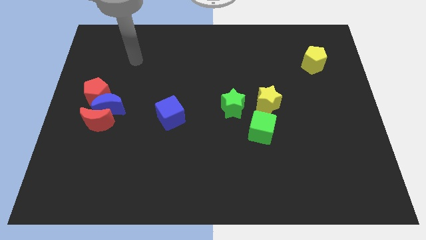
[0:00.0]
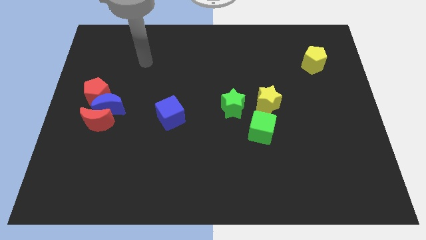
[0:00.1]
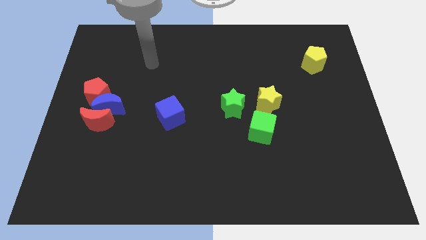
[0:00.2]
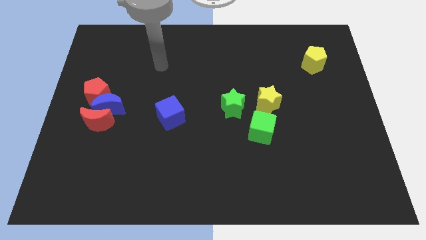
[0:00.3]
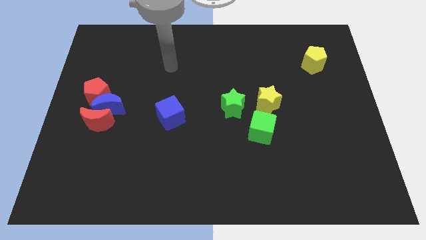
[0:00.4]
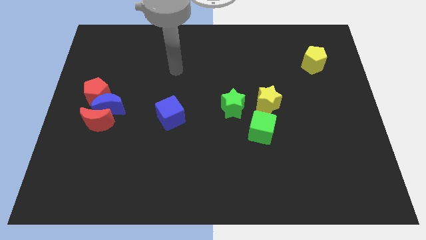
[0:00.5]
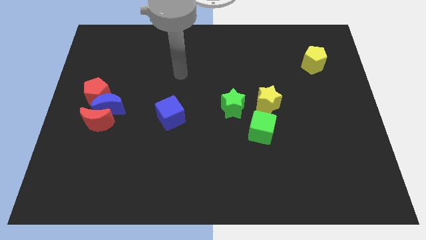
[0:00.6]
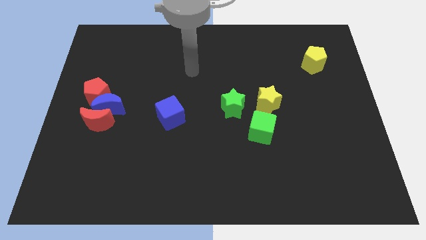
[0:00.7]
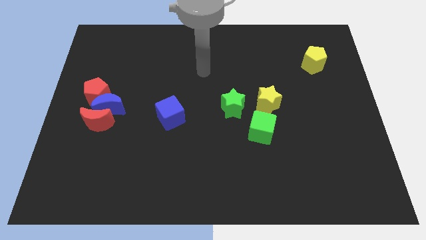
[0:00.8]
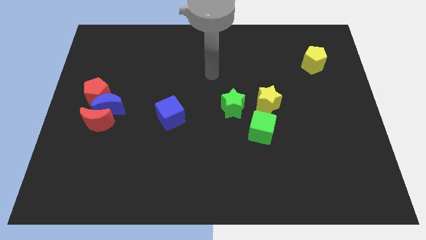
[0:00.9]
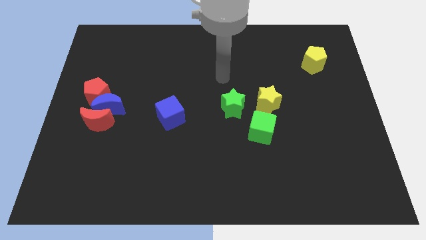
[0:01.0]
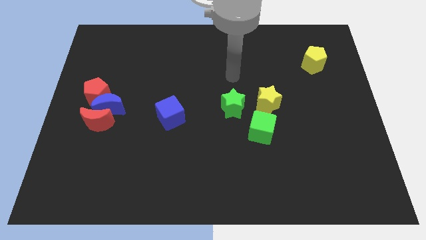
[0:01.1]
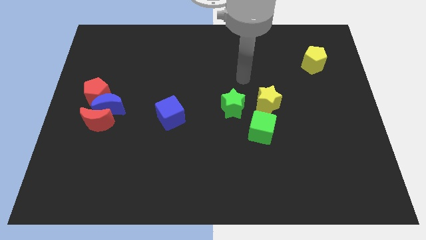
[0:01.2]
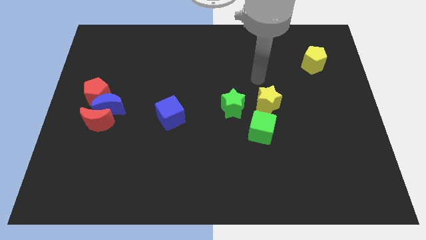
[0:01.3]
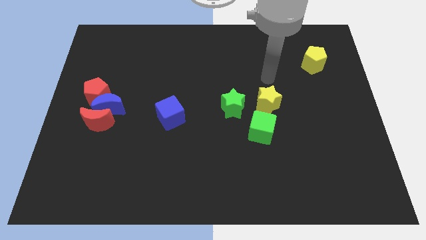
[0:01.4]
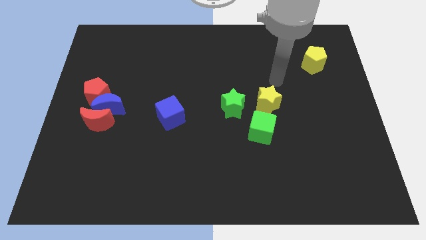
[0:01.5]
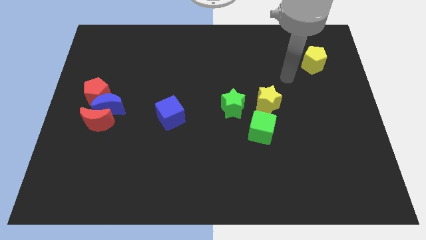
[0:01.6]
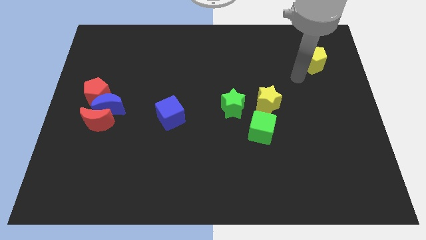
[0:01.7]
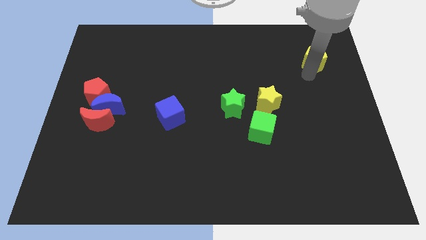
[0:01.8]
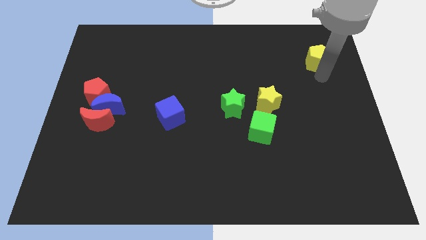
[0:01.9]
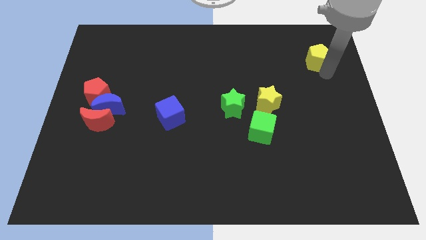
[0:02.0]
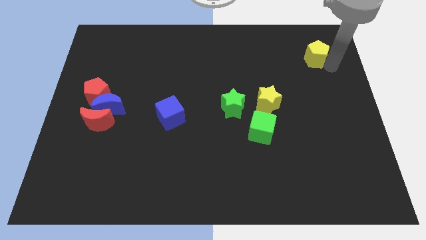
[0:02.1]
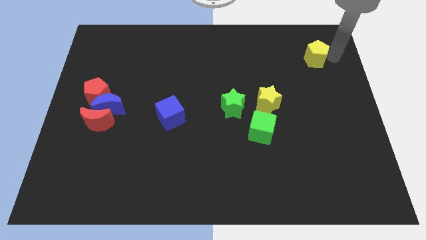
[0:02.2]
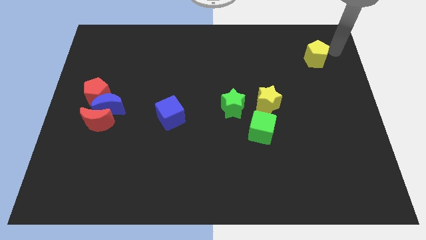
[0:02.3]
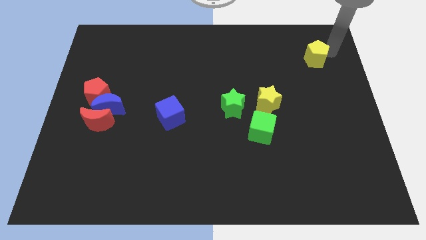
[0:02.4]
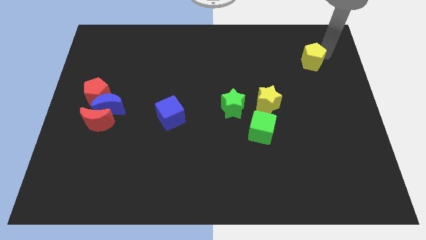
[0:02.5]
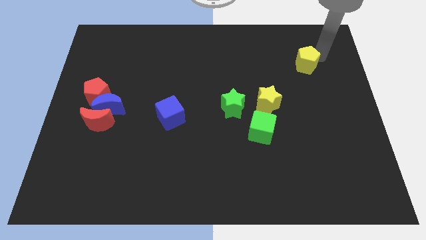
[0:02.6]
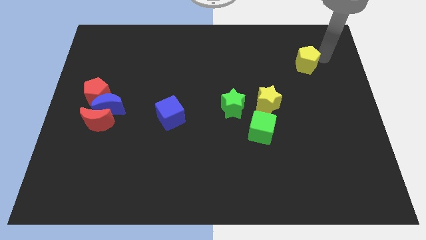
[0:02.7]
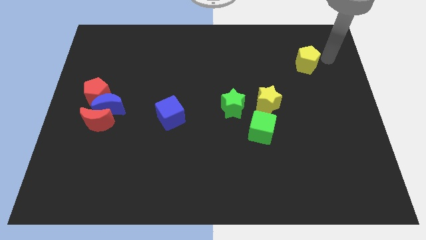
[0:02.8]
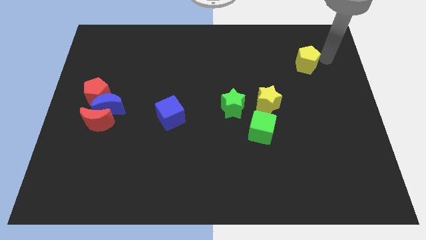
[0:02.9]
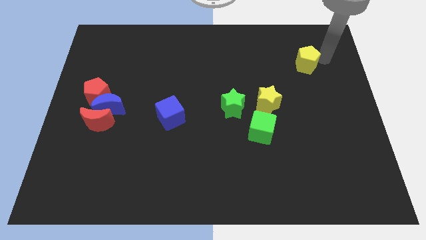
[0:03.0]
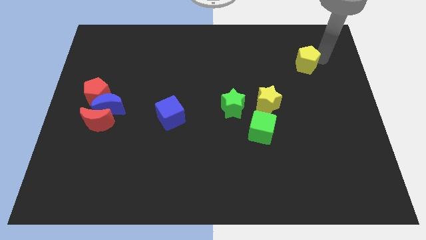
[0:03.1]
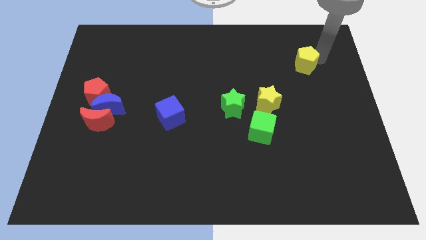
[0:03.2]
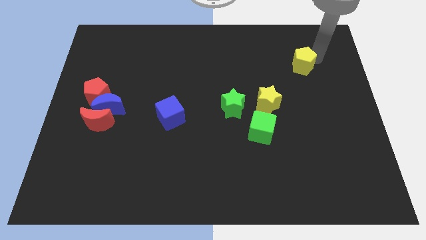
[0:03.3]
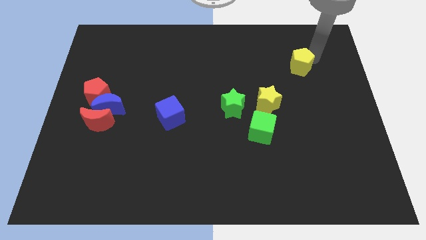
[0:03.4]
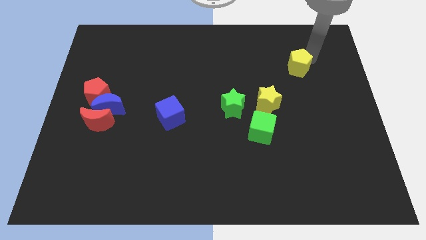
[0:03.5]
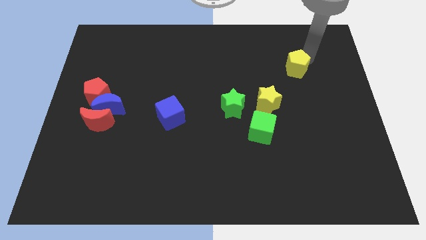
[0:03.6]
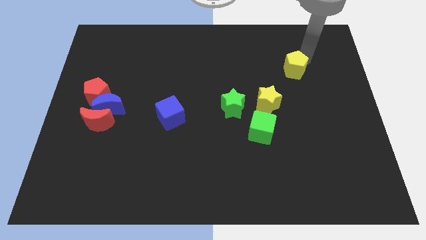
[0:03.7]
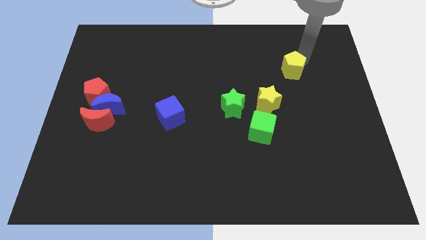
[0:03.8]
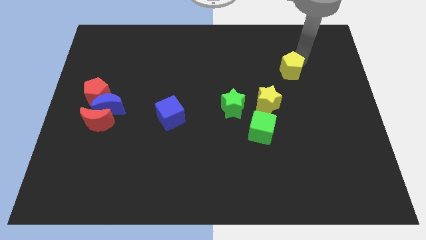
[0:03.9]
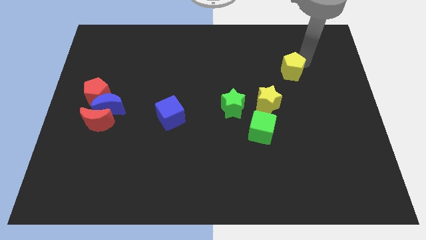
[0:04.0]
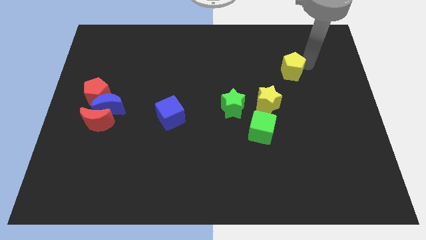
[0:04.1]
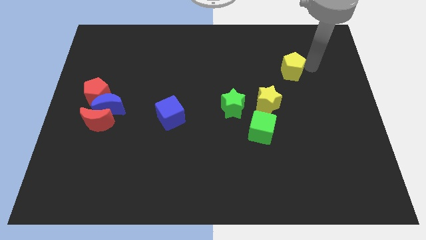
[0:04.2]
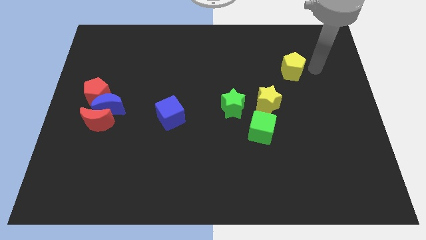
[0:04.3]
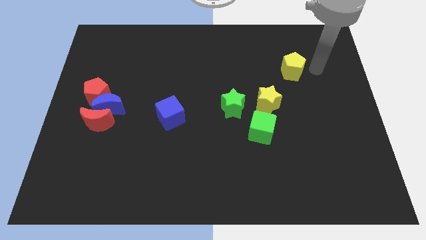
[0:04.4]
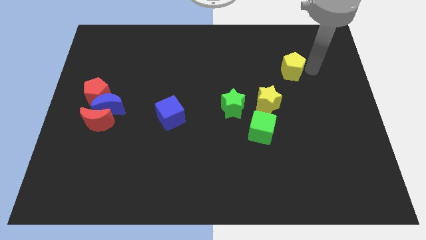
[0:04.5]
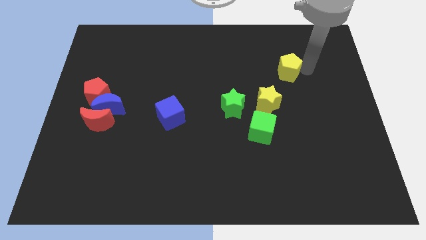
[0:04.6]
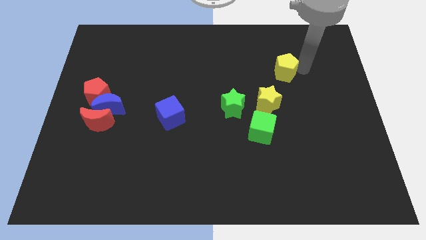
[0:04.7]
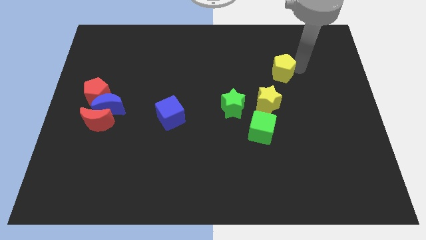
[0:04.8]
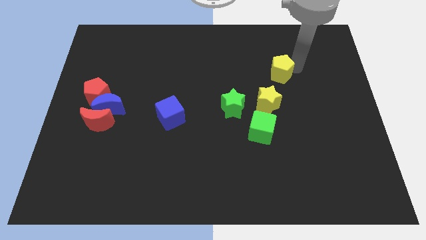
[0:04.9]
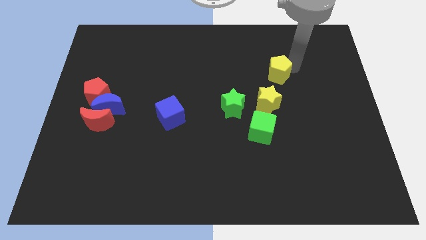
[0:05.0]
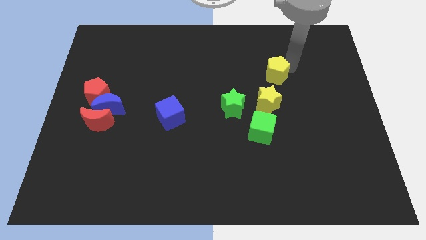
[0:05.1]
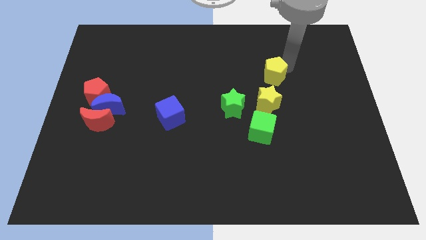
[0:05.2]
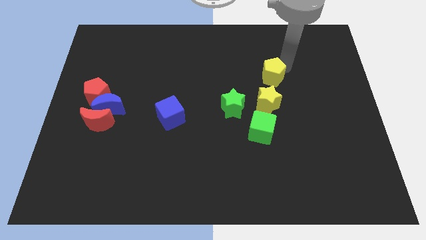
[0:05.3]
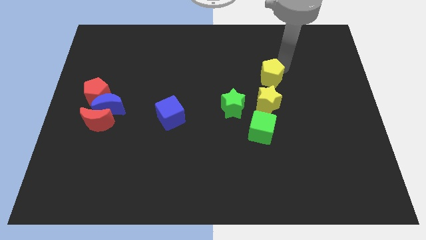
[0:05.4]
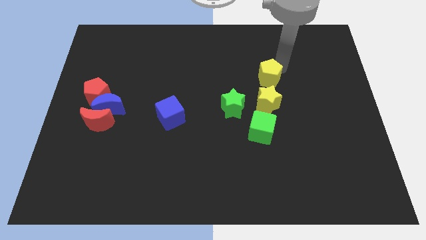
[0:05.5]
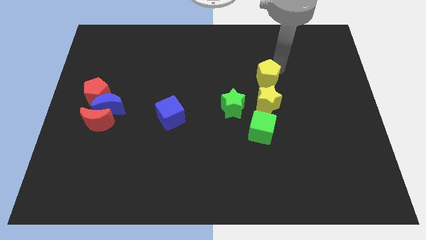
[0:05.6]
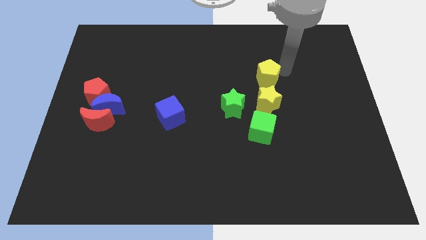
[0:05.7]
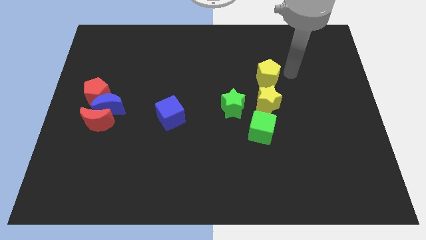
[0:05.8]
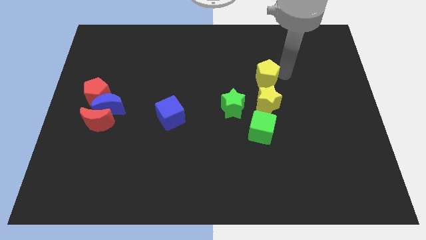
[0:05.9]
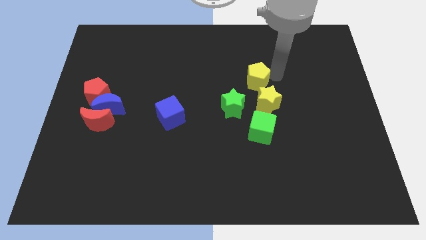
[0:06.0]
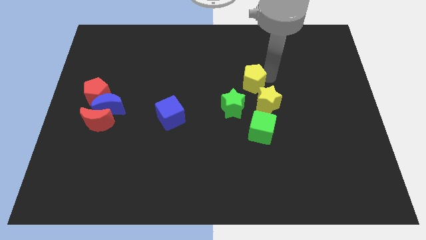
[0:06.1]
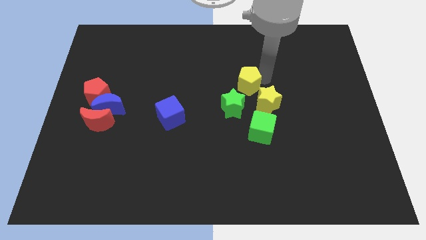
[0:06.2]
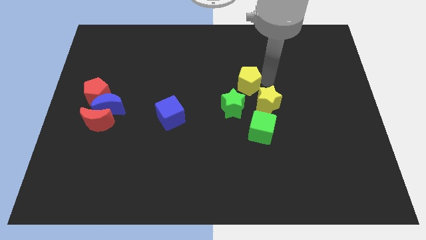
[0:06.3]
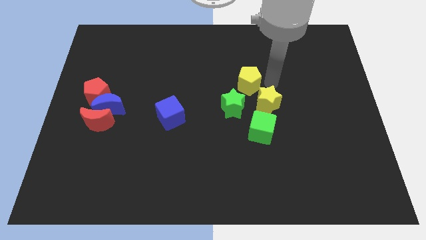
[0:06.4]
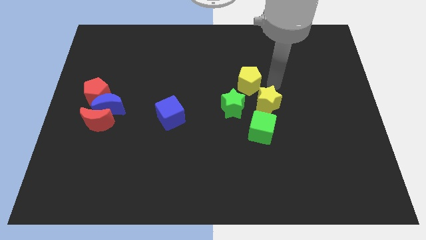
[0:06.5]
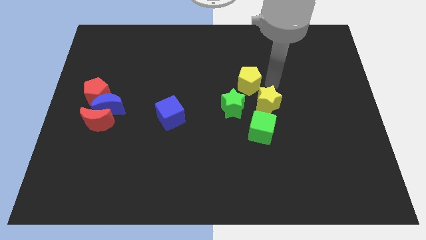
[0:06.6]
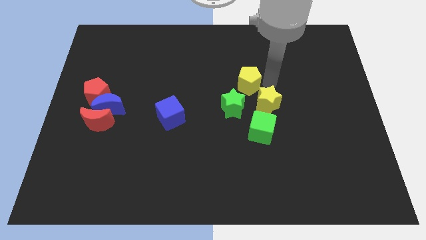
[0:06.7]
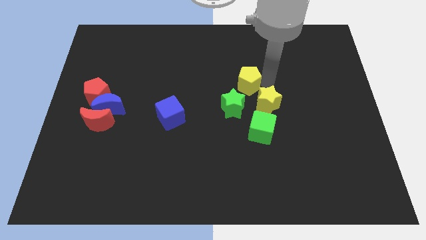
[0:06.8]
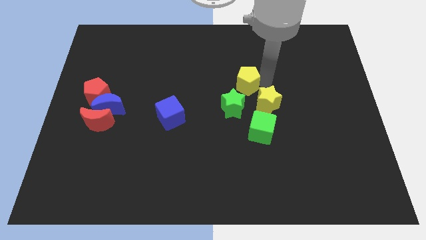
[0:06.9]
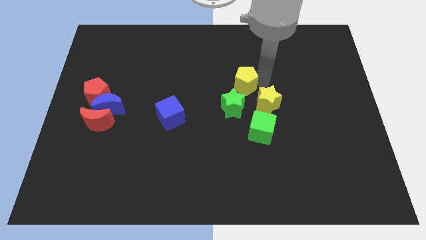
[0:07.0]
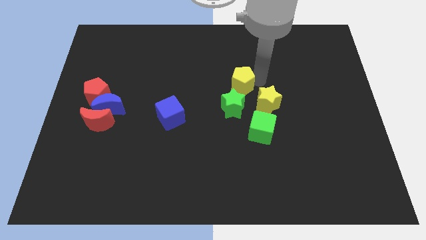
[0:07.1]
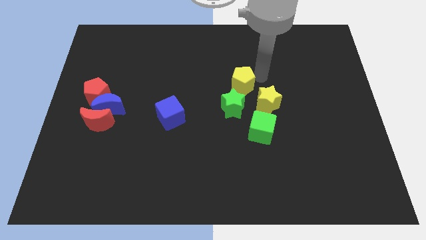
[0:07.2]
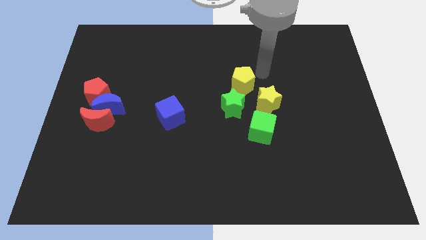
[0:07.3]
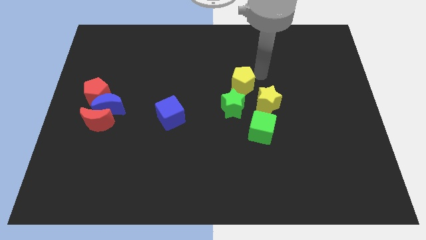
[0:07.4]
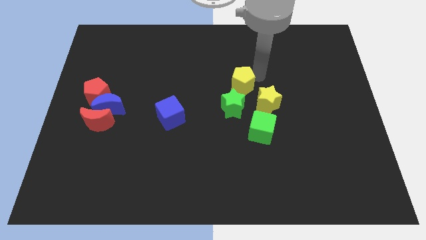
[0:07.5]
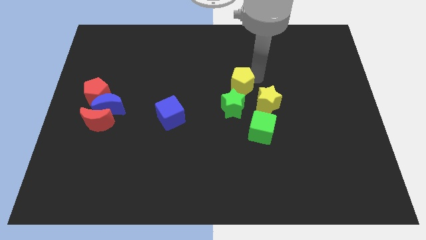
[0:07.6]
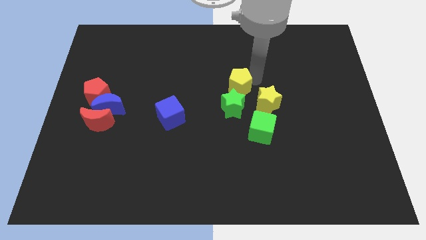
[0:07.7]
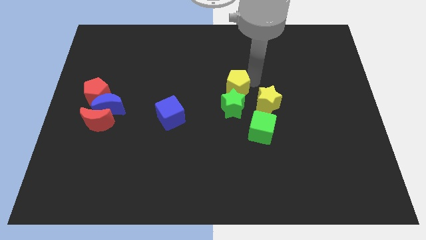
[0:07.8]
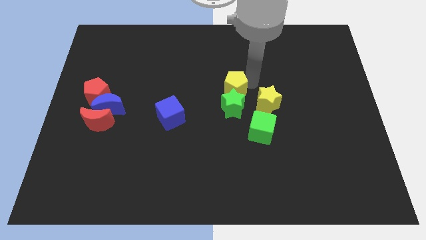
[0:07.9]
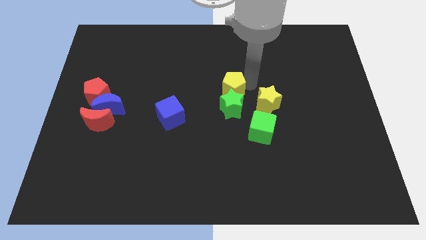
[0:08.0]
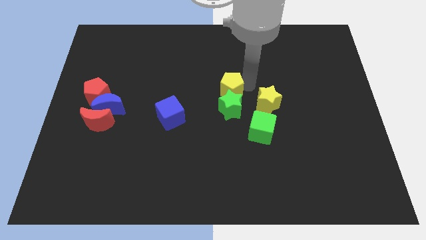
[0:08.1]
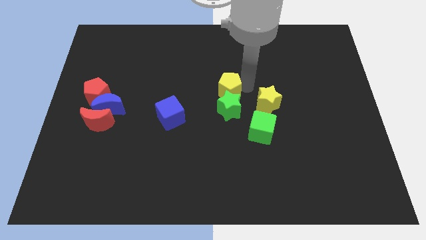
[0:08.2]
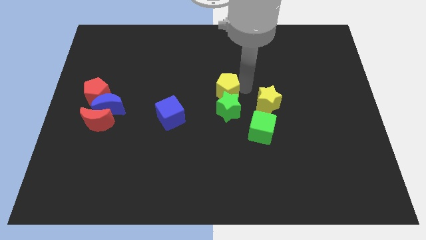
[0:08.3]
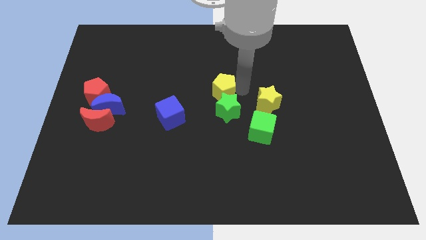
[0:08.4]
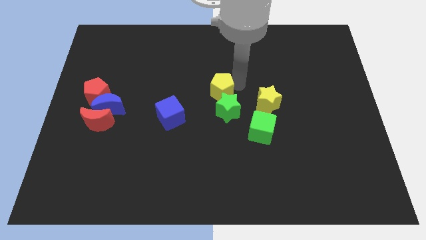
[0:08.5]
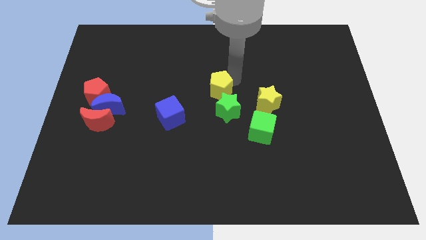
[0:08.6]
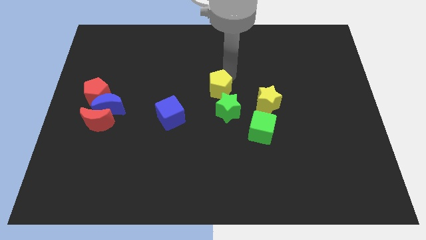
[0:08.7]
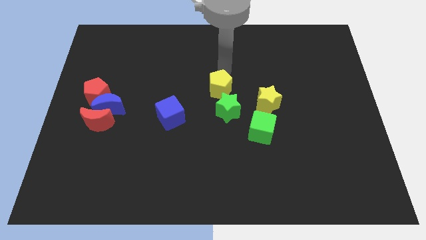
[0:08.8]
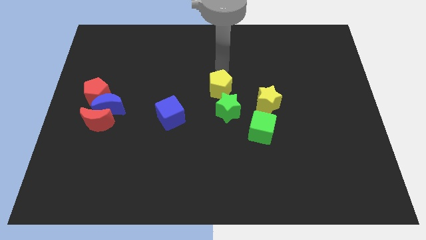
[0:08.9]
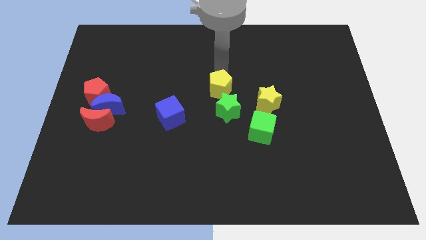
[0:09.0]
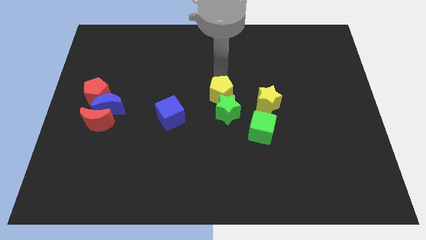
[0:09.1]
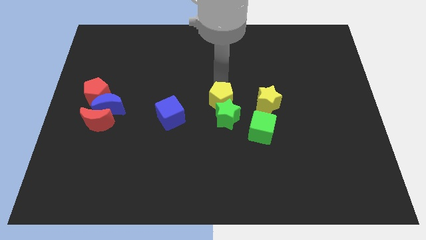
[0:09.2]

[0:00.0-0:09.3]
slide the yellow pentagon to the right side of the blue cube
